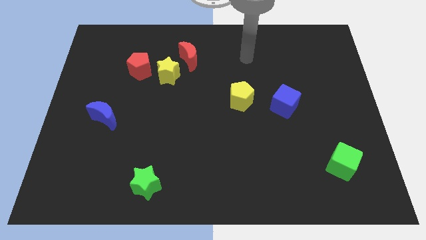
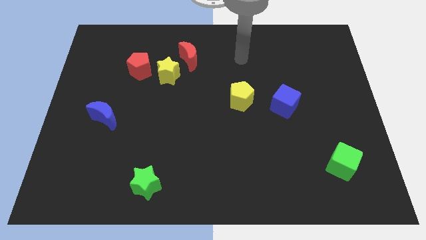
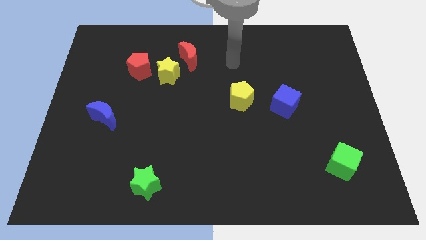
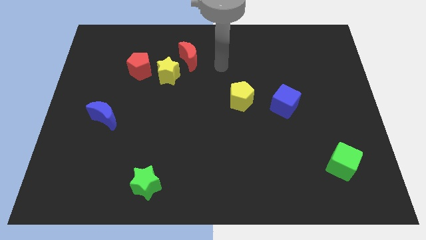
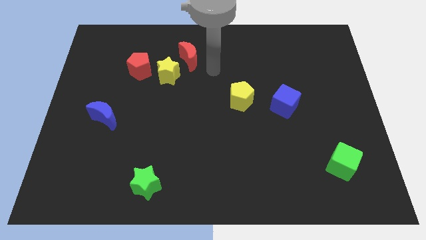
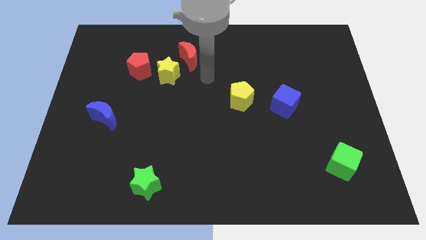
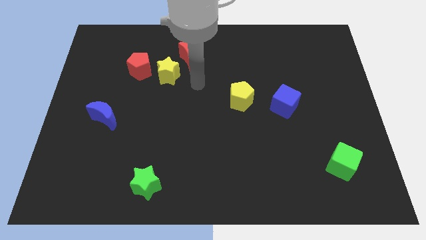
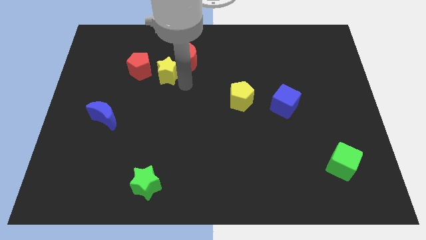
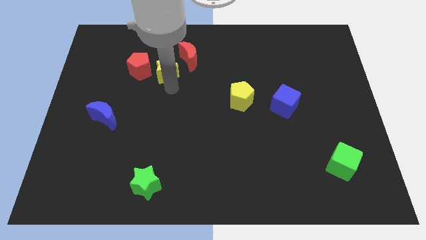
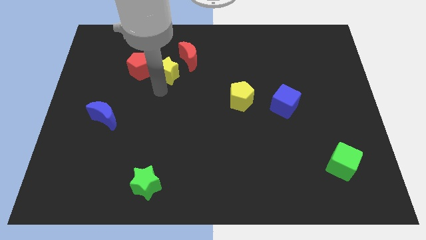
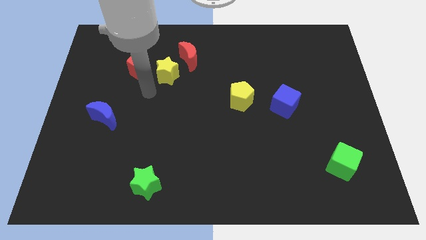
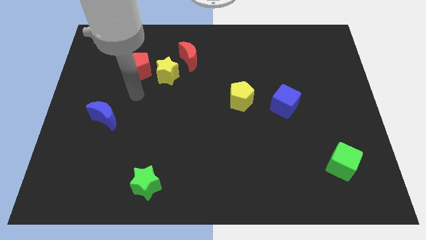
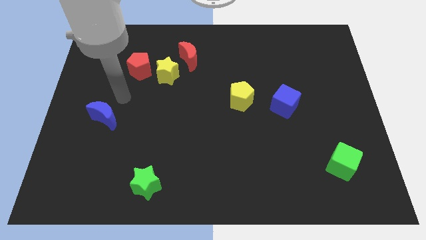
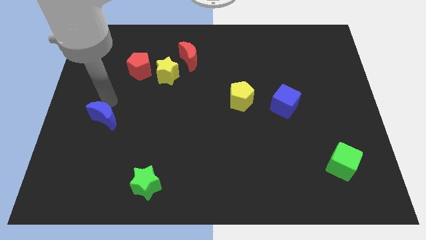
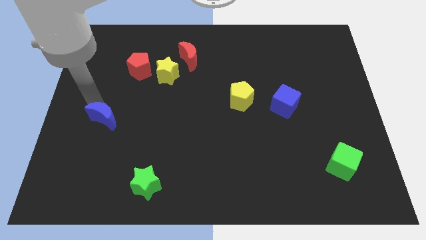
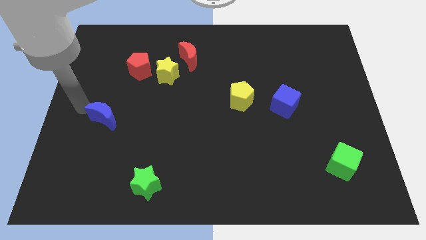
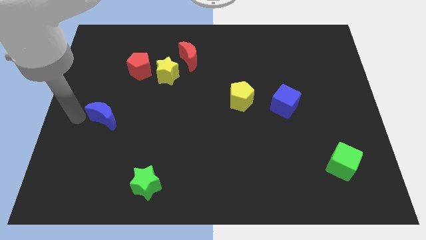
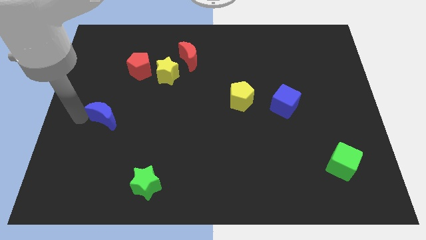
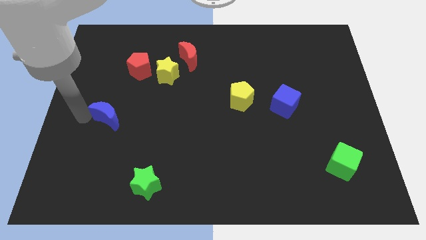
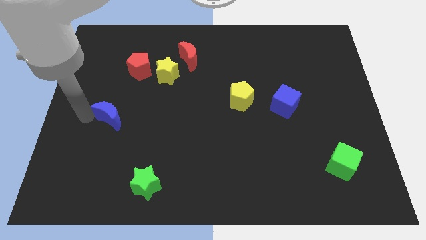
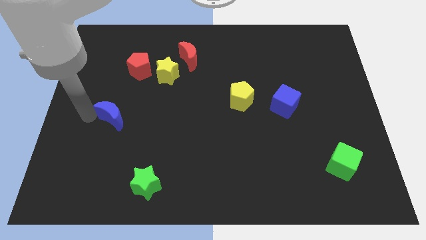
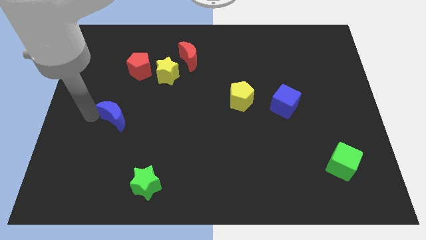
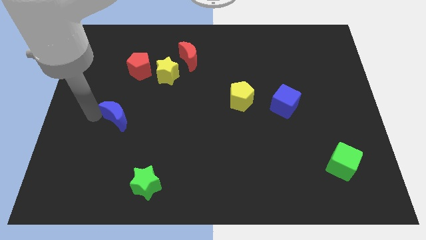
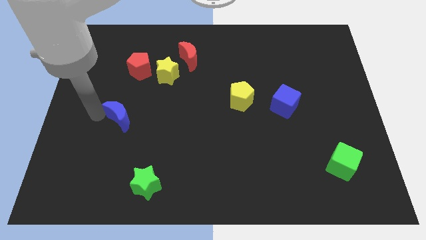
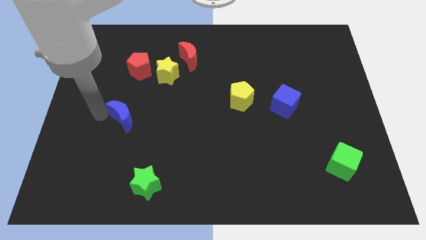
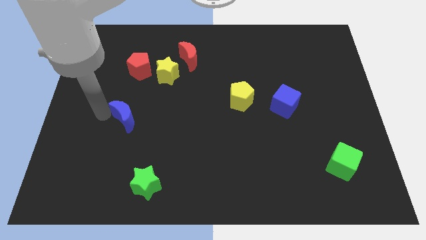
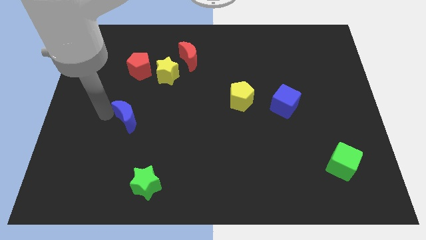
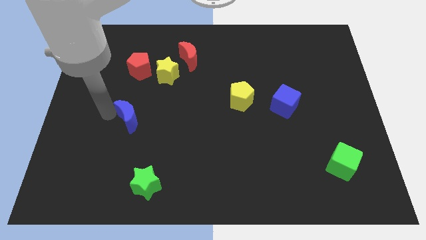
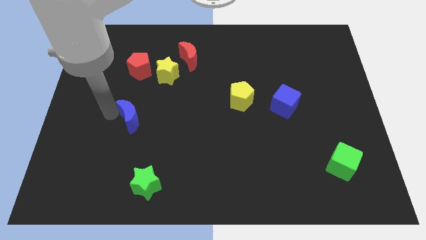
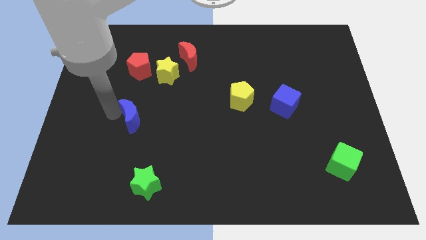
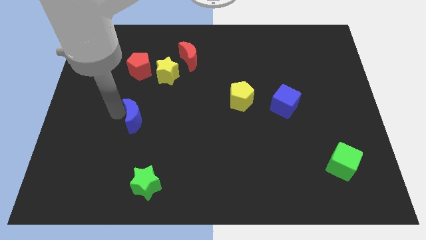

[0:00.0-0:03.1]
slightly slide the blue moon to the right

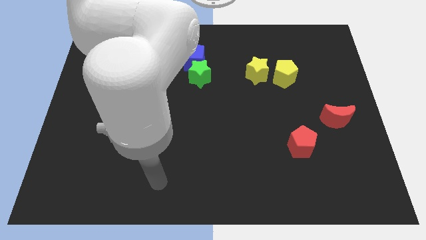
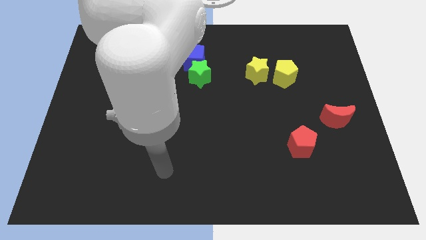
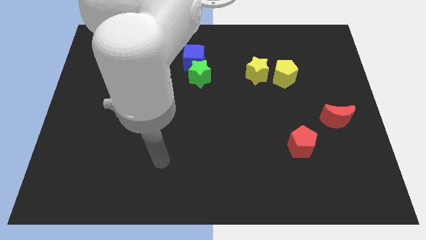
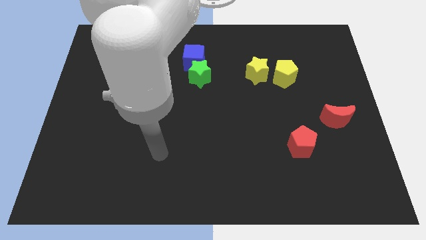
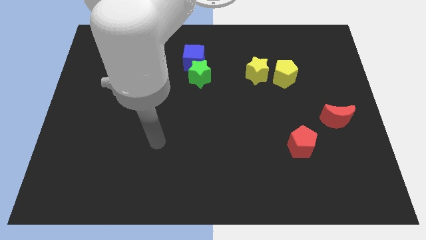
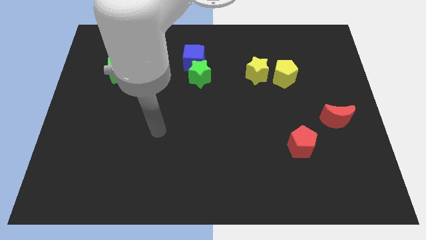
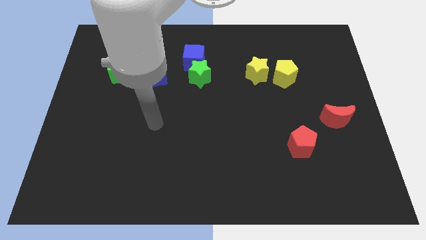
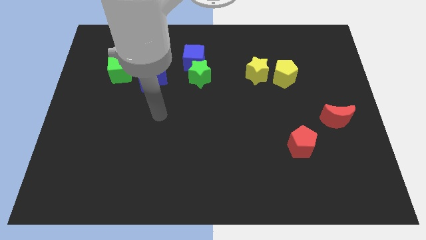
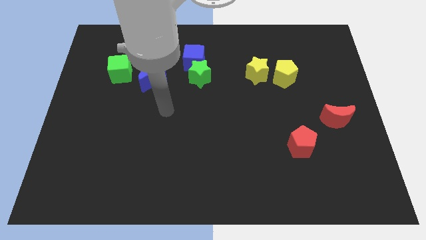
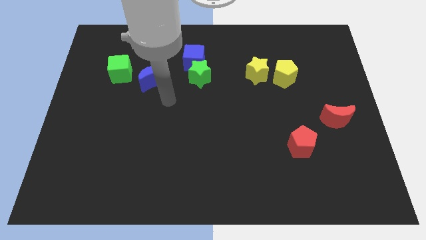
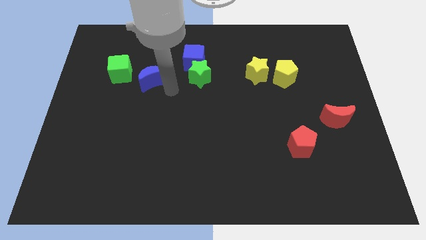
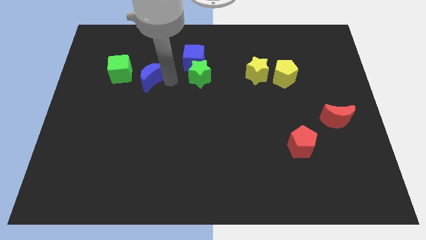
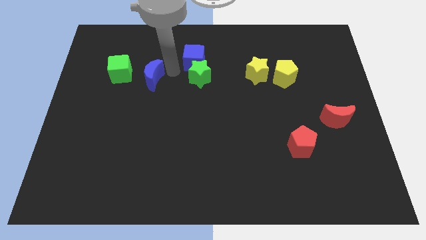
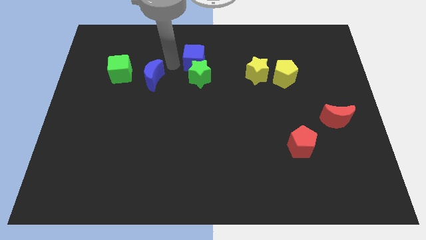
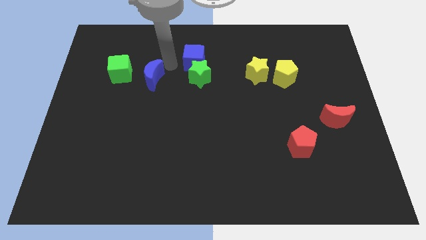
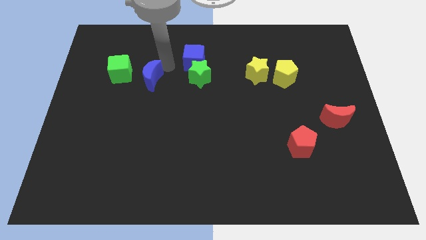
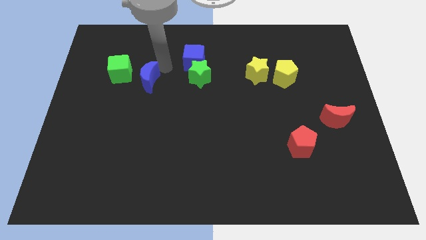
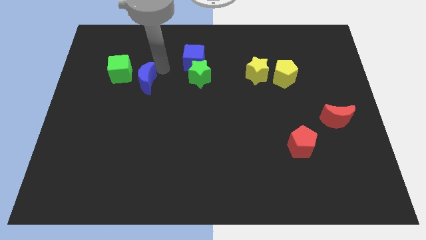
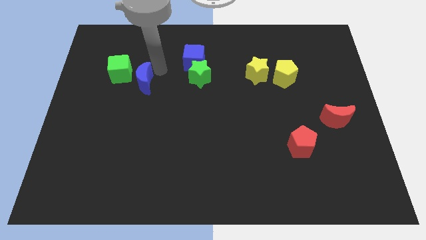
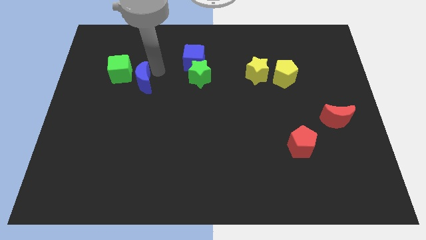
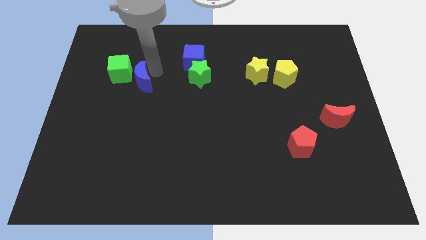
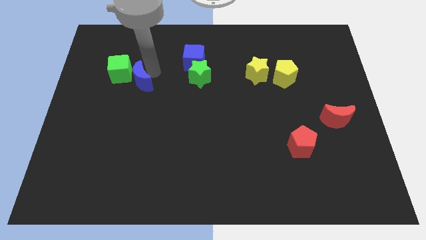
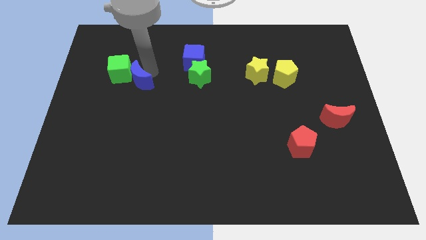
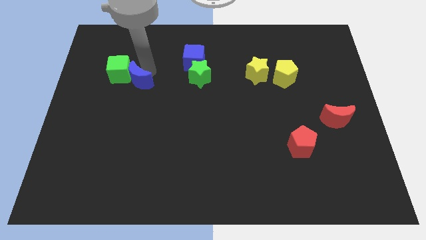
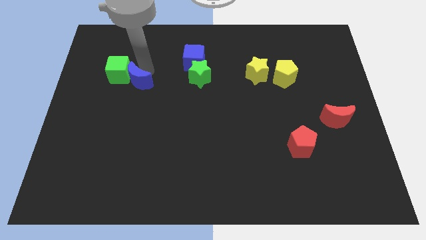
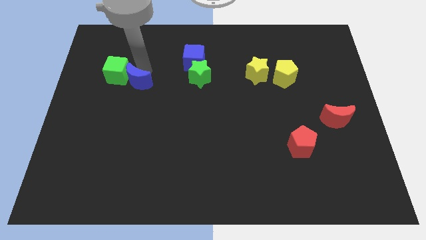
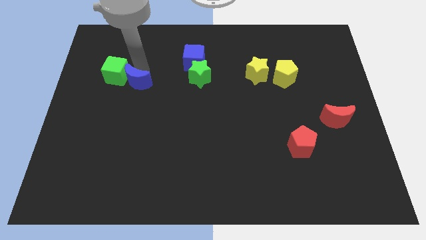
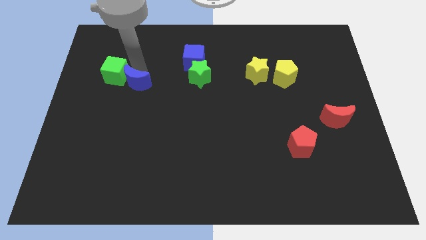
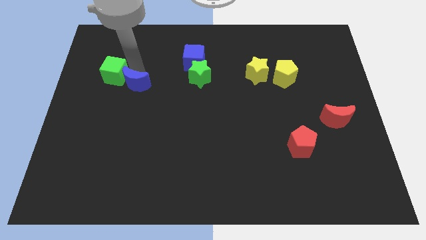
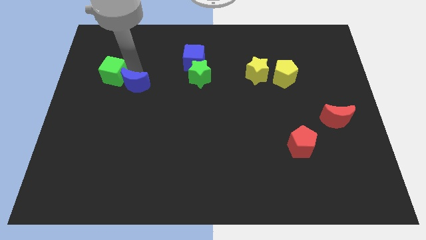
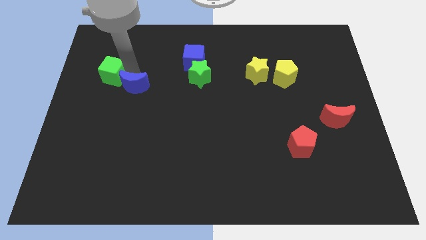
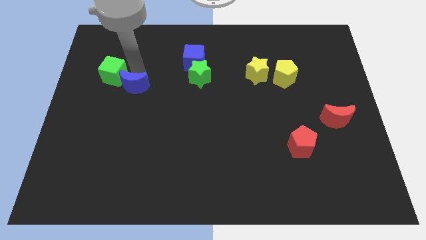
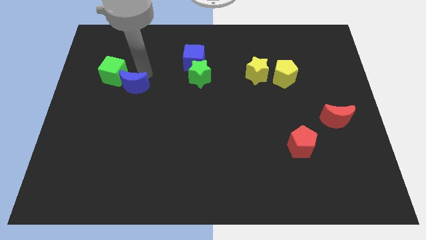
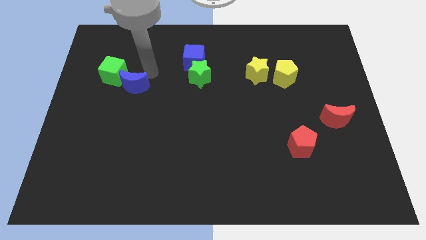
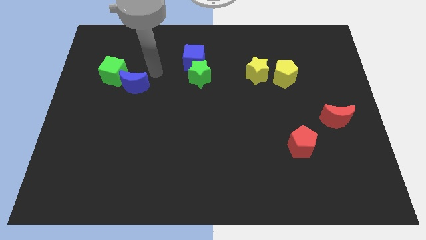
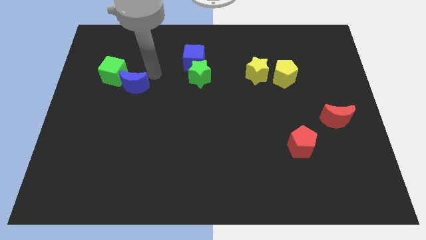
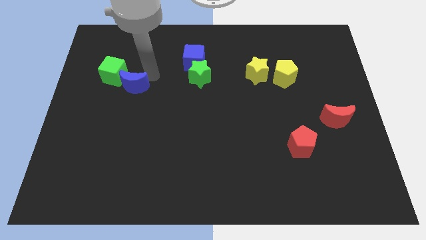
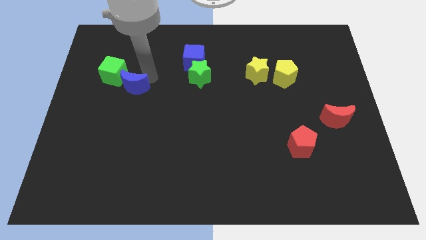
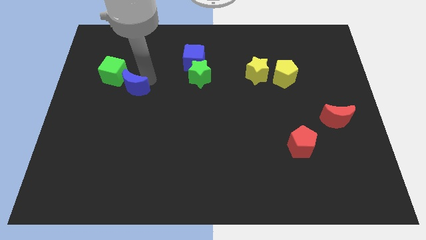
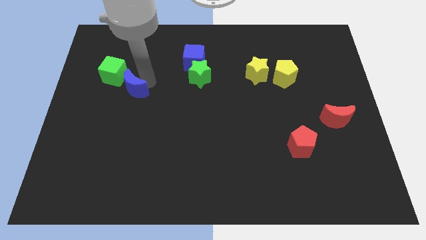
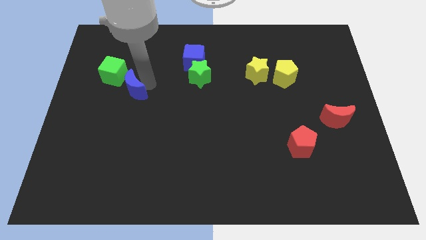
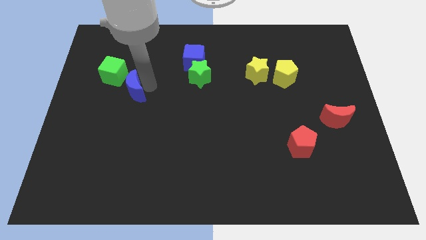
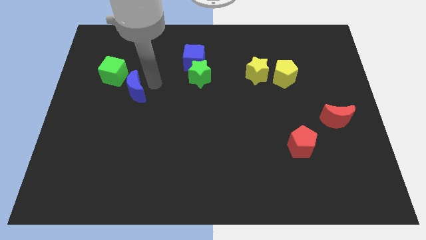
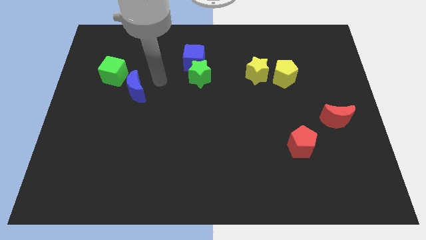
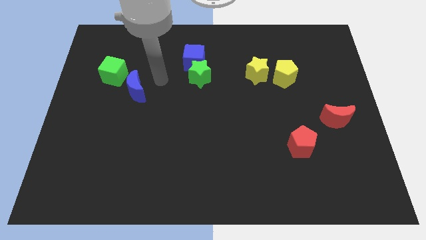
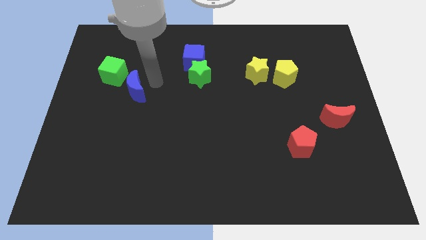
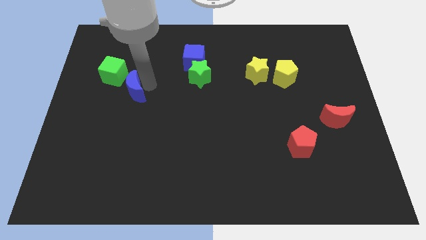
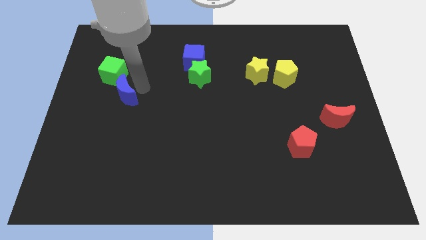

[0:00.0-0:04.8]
slightly slide the blue moon down and then left

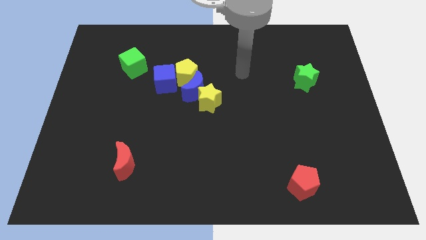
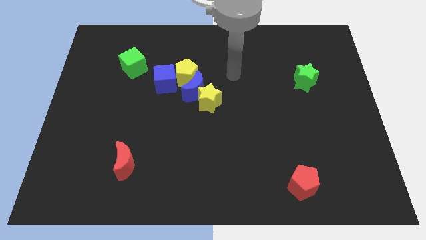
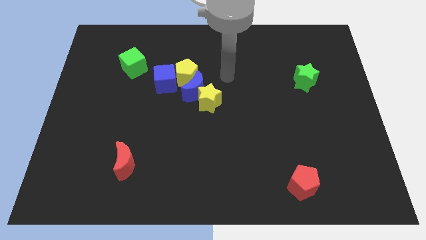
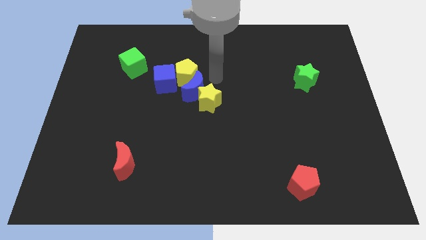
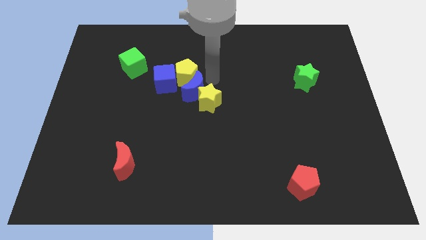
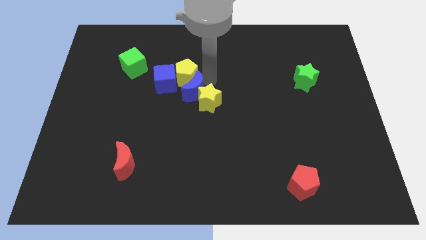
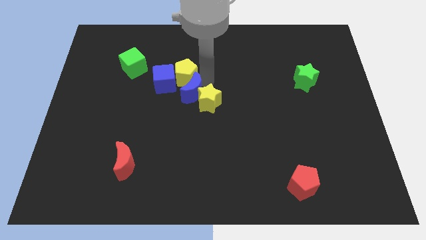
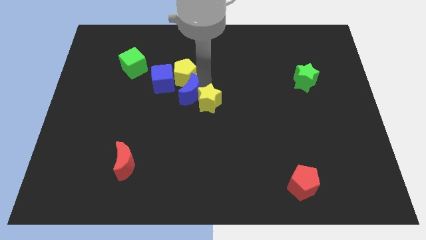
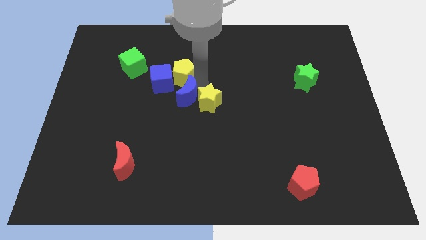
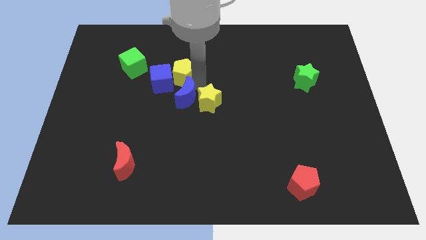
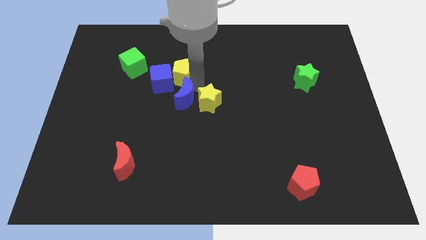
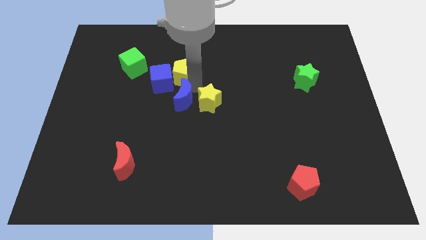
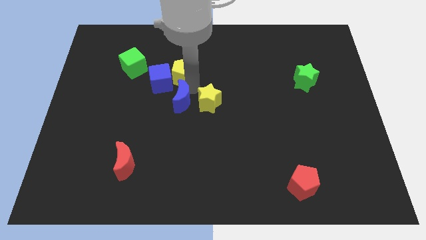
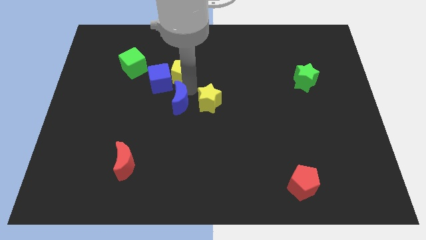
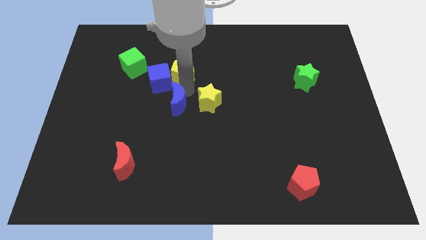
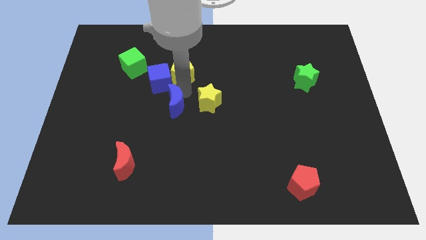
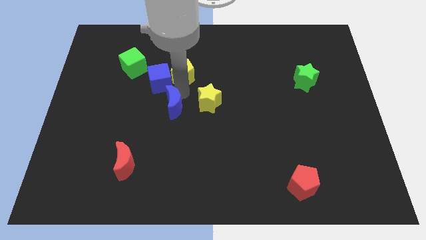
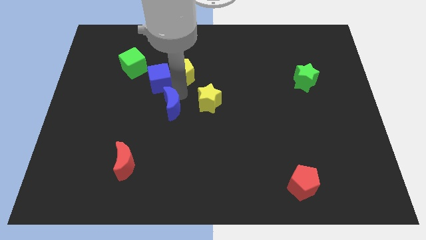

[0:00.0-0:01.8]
push the blue moon somewhat downwards and left diagonally
